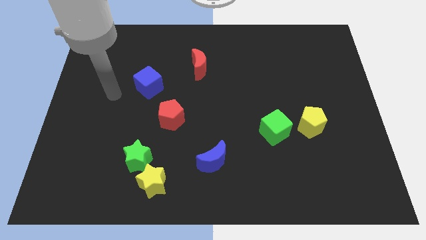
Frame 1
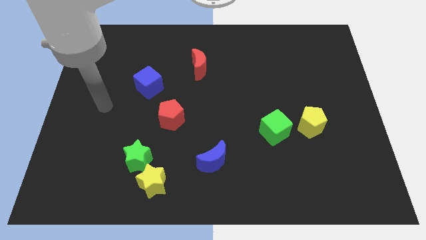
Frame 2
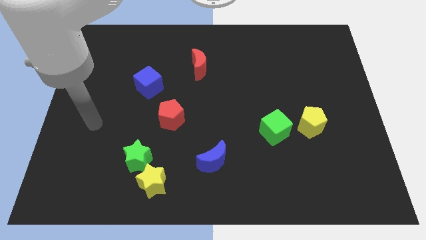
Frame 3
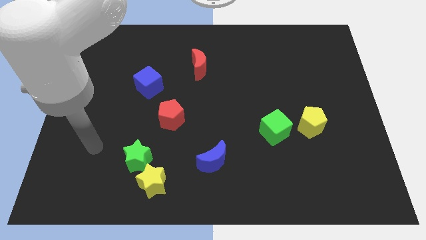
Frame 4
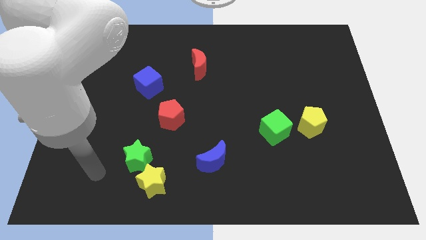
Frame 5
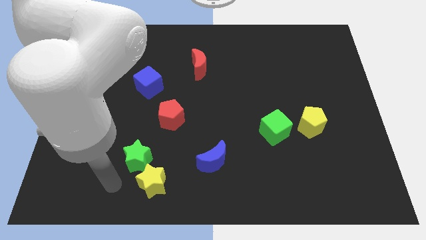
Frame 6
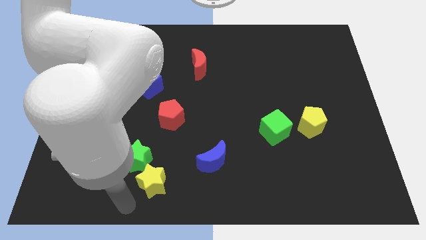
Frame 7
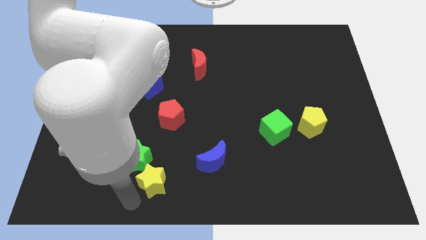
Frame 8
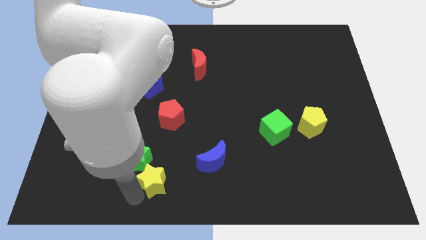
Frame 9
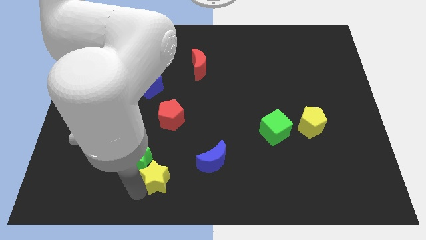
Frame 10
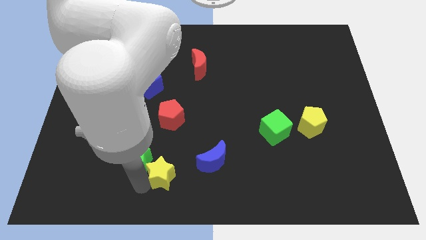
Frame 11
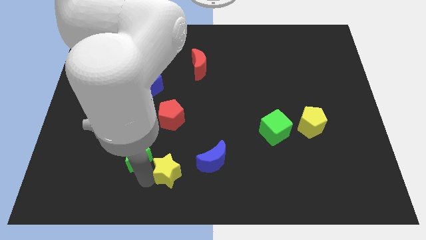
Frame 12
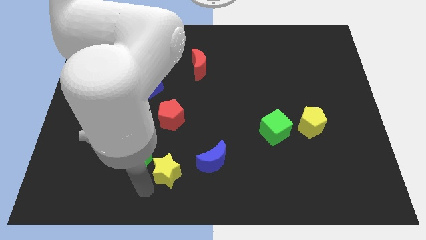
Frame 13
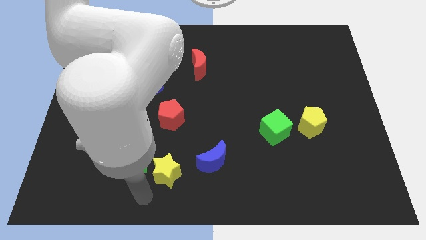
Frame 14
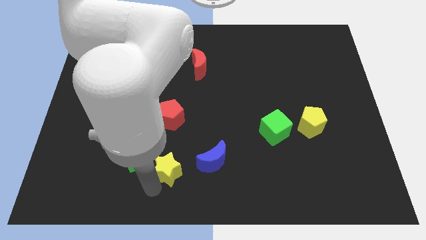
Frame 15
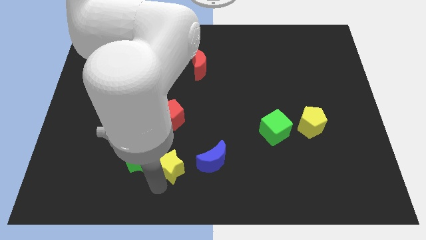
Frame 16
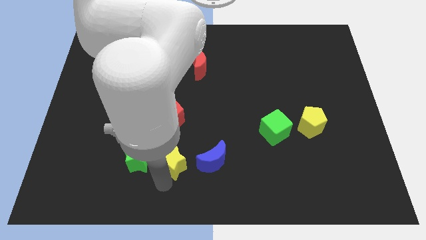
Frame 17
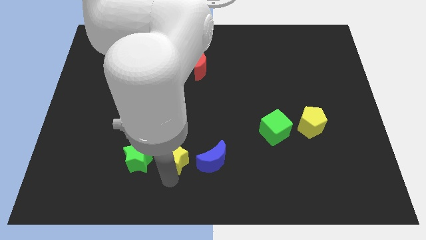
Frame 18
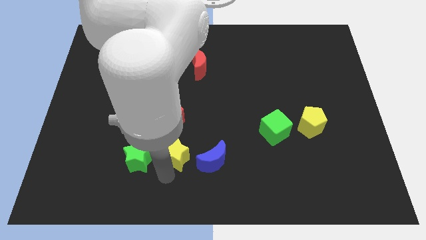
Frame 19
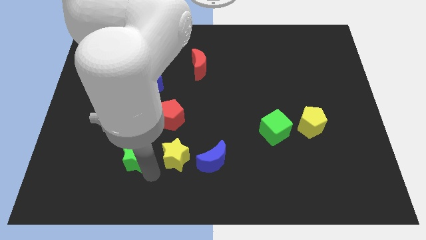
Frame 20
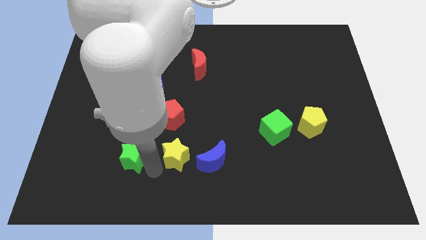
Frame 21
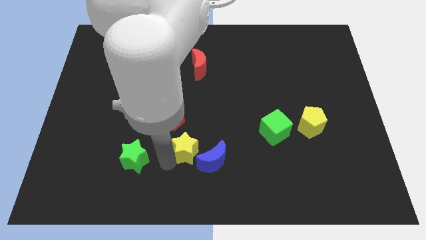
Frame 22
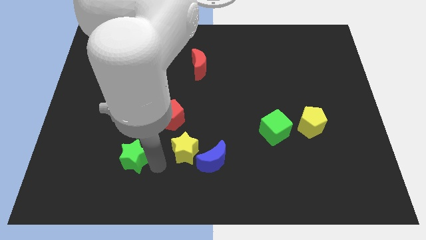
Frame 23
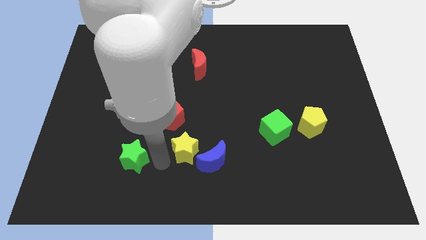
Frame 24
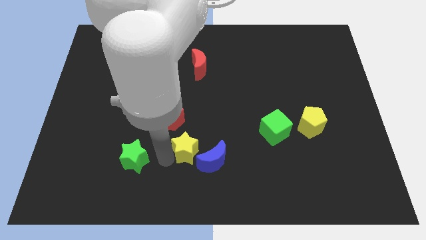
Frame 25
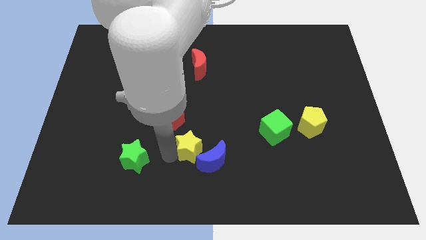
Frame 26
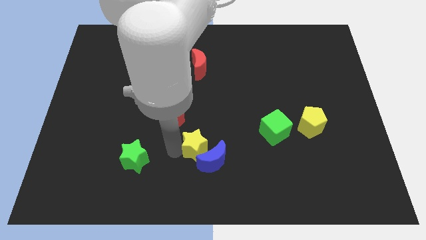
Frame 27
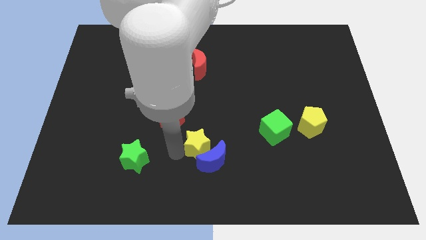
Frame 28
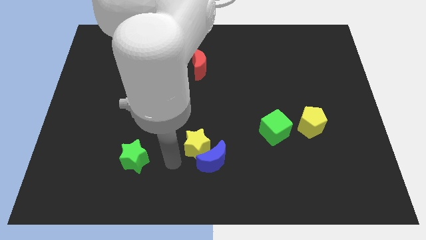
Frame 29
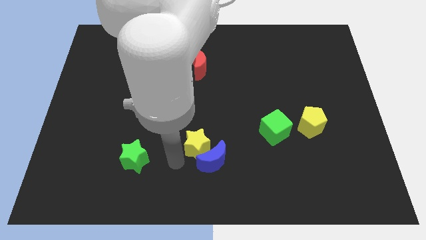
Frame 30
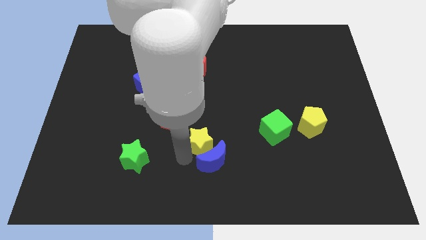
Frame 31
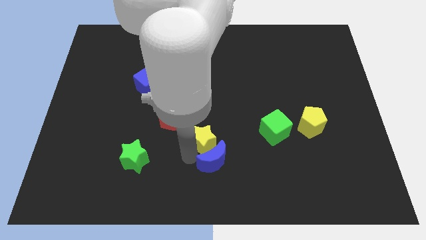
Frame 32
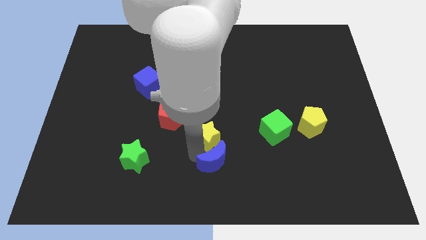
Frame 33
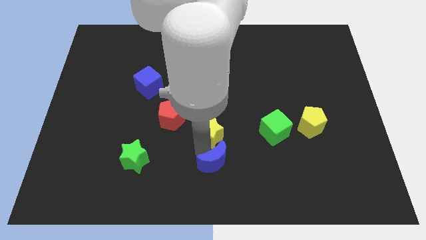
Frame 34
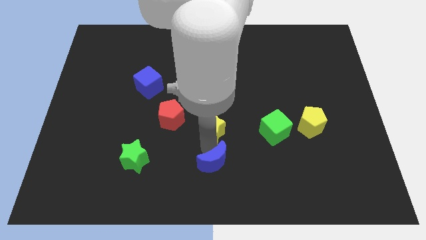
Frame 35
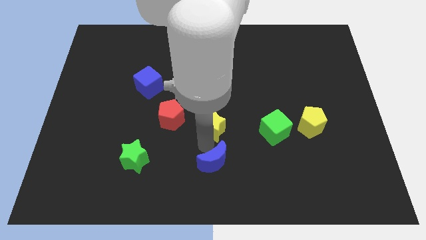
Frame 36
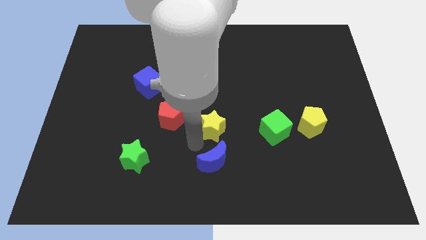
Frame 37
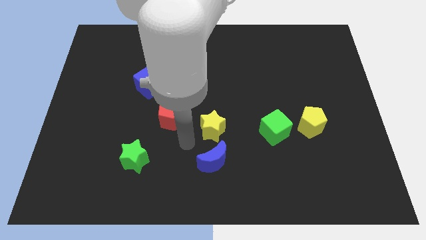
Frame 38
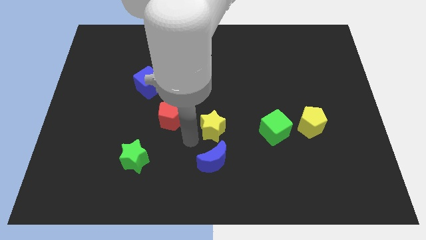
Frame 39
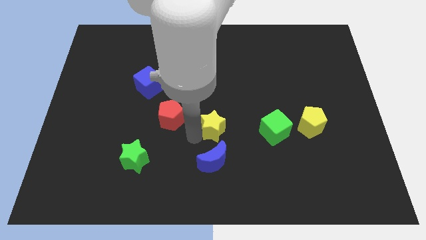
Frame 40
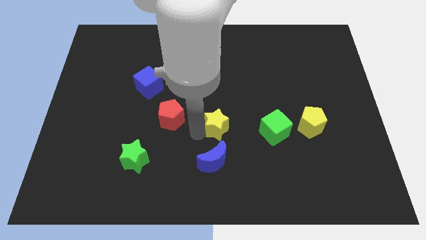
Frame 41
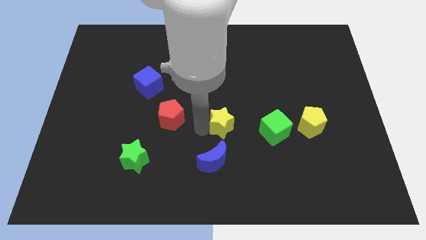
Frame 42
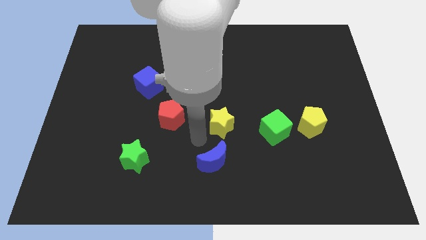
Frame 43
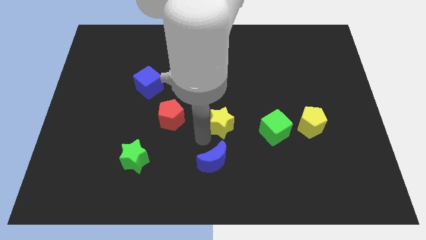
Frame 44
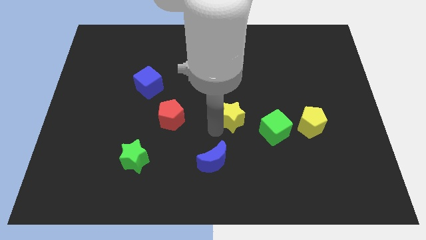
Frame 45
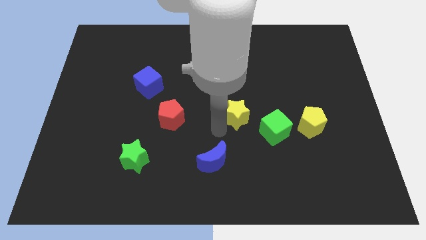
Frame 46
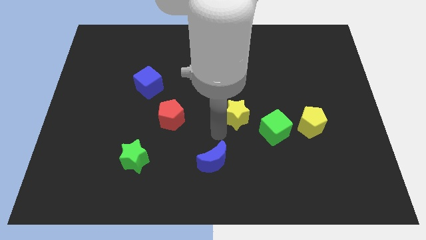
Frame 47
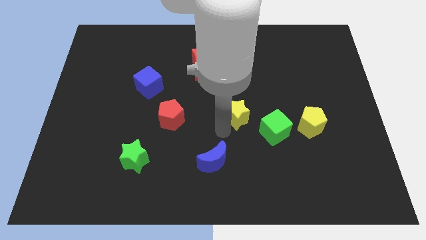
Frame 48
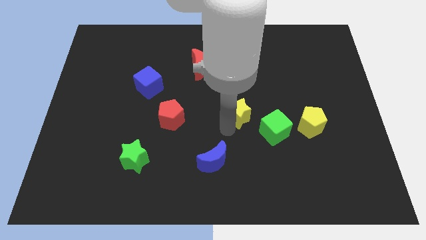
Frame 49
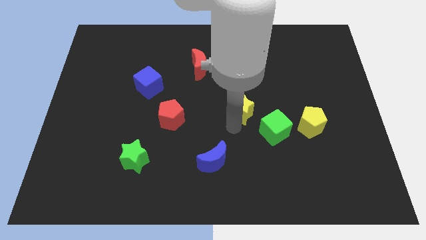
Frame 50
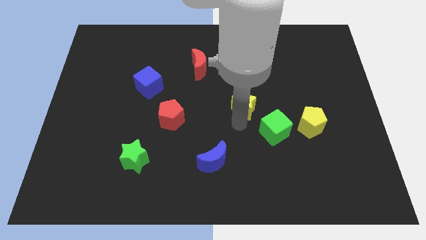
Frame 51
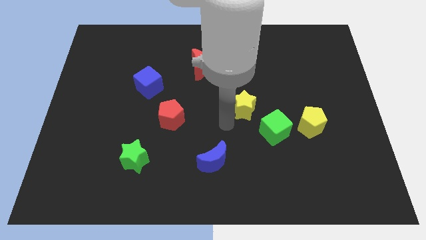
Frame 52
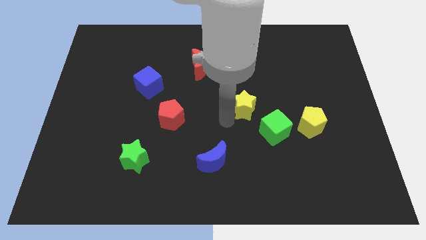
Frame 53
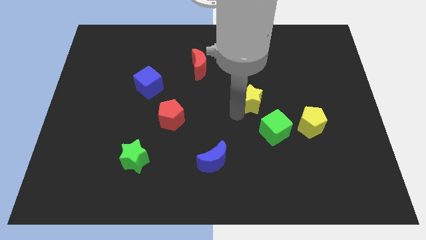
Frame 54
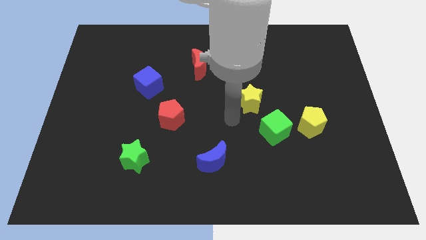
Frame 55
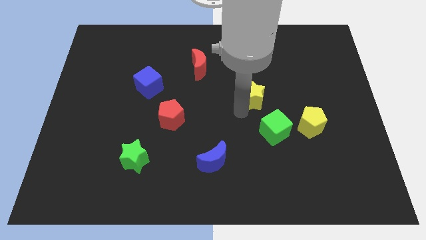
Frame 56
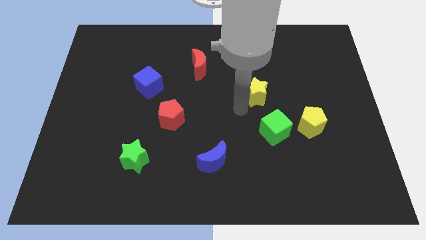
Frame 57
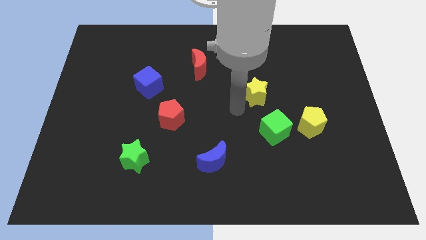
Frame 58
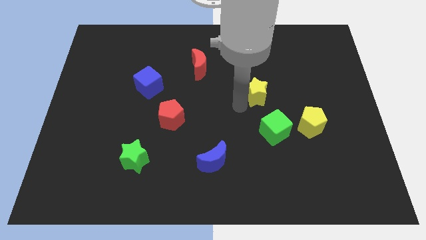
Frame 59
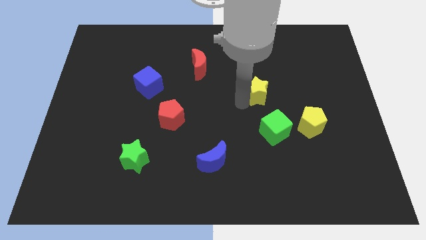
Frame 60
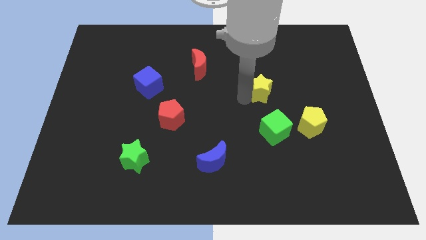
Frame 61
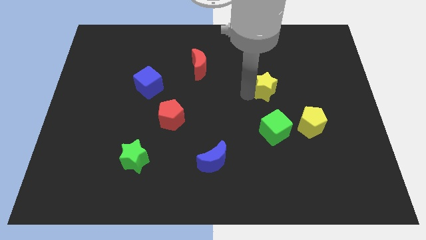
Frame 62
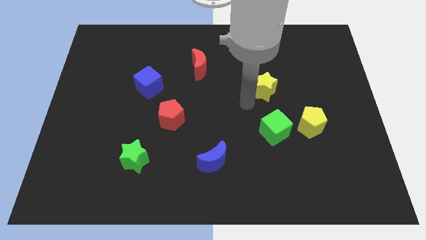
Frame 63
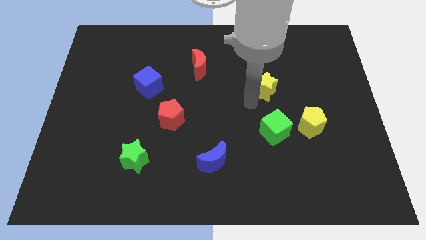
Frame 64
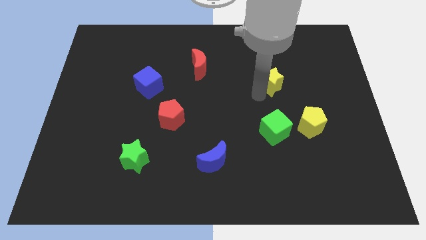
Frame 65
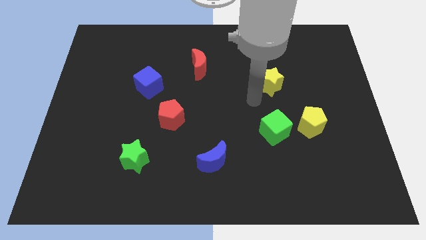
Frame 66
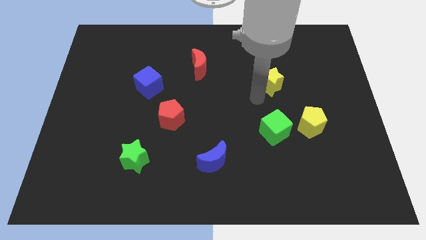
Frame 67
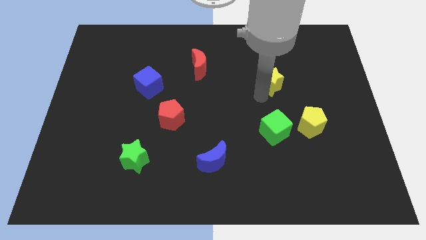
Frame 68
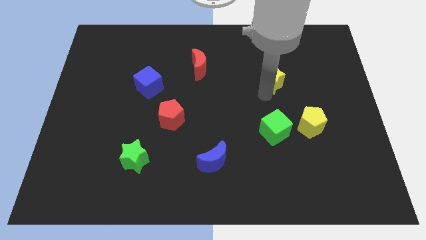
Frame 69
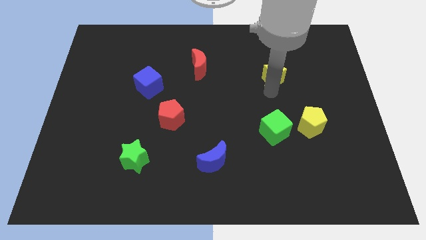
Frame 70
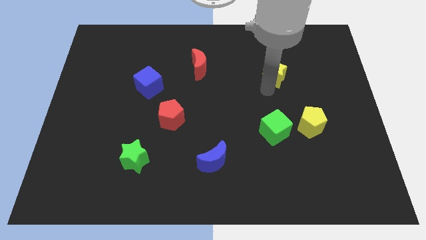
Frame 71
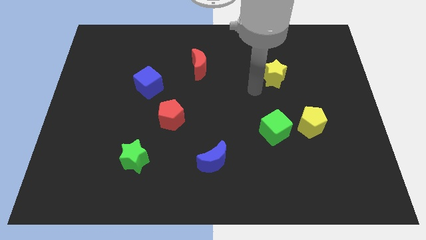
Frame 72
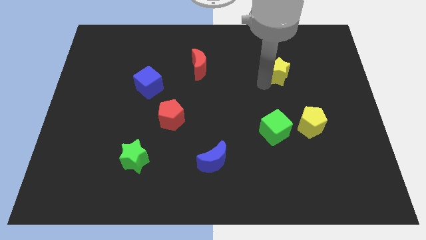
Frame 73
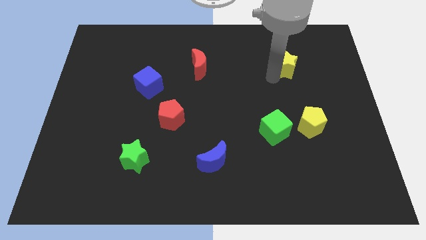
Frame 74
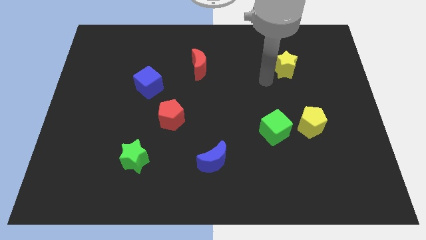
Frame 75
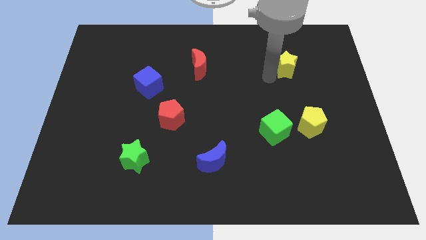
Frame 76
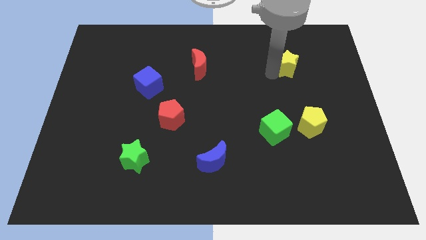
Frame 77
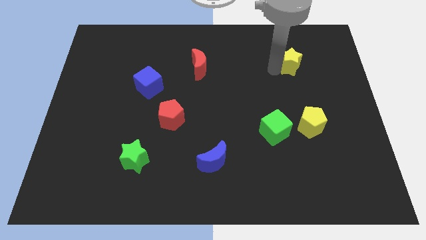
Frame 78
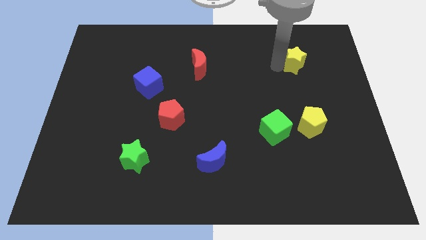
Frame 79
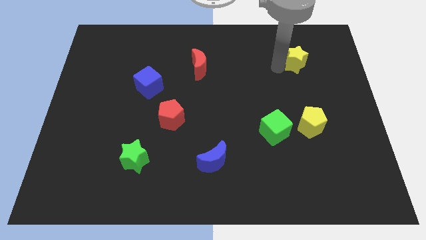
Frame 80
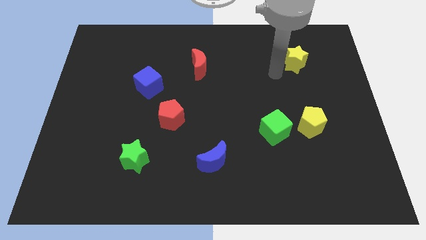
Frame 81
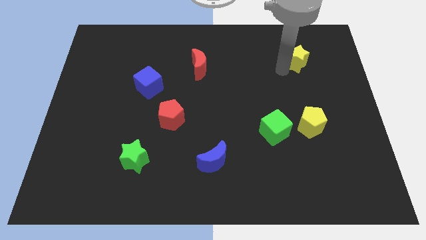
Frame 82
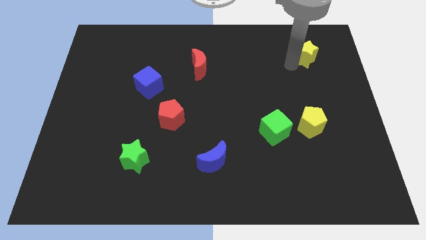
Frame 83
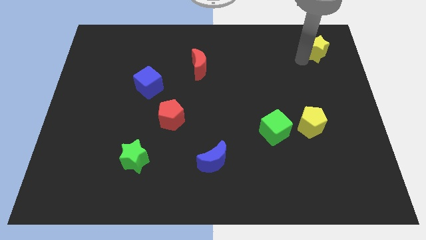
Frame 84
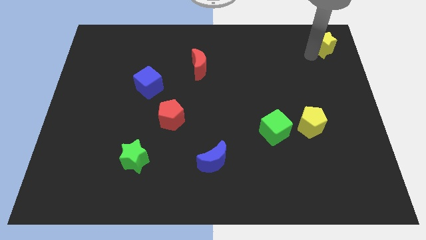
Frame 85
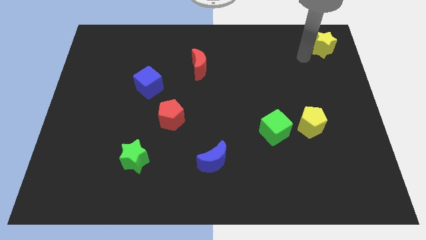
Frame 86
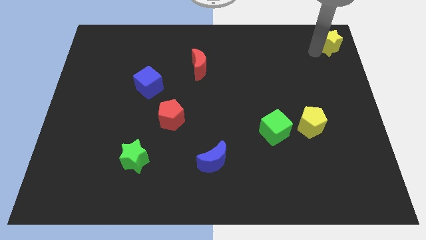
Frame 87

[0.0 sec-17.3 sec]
slide the yellow star to the top right corner
